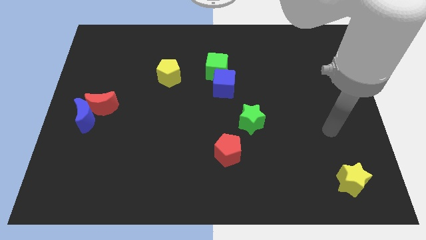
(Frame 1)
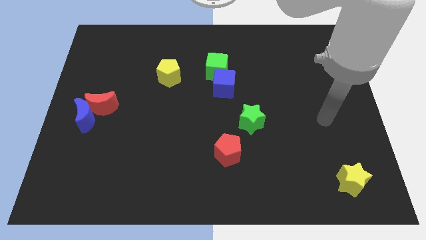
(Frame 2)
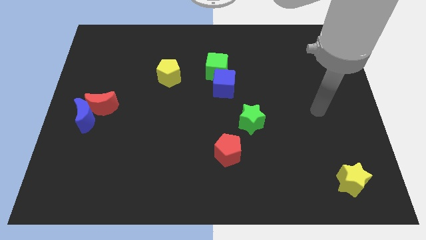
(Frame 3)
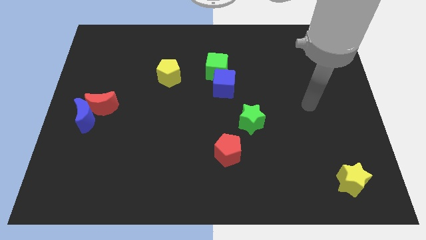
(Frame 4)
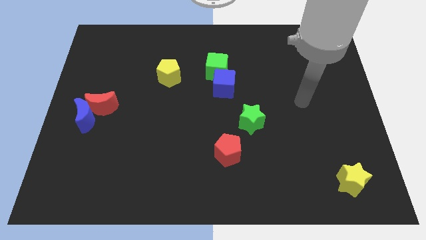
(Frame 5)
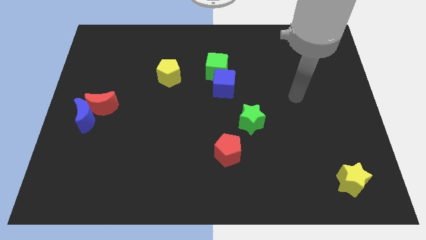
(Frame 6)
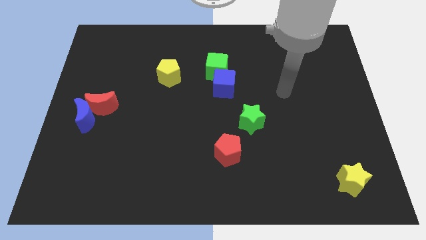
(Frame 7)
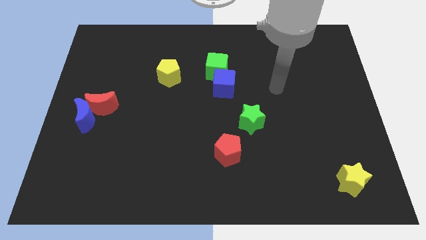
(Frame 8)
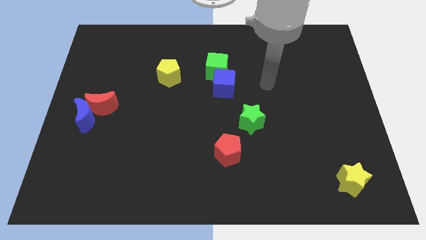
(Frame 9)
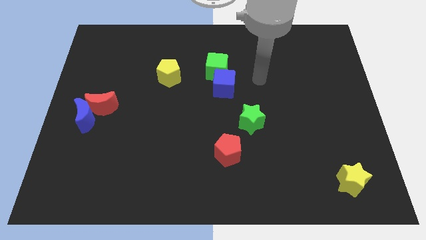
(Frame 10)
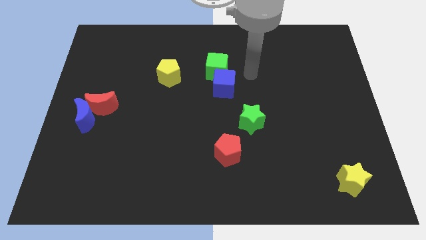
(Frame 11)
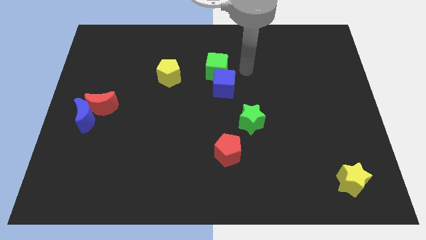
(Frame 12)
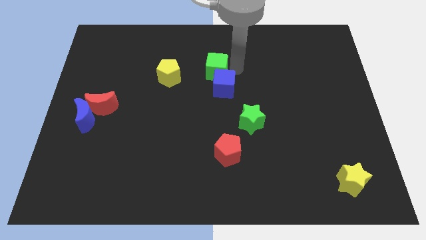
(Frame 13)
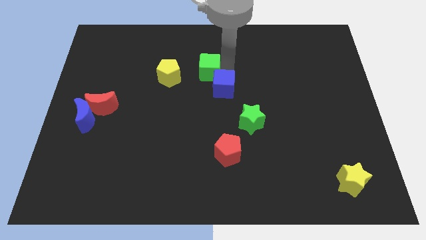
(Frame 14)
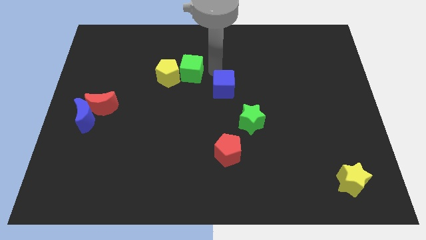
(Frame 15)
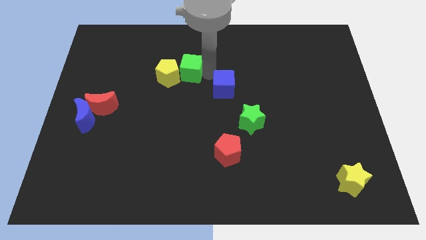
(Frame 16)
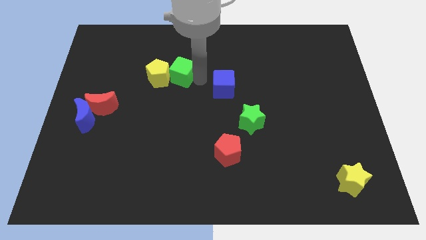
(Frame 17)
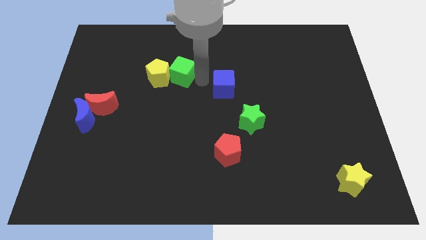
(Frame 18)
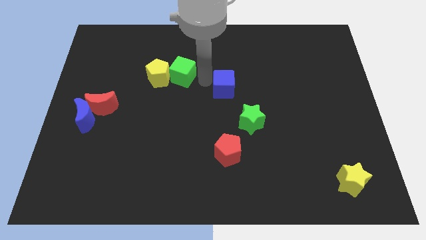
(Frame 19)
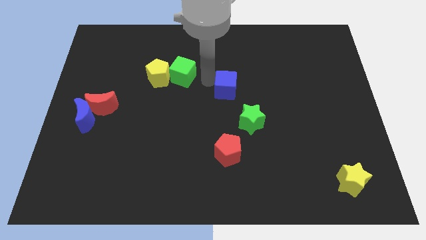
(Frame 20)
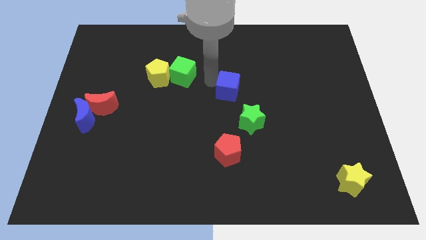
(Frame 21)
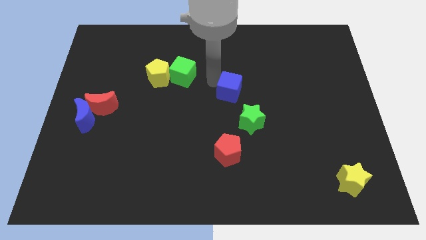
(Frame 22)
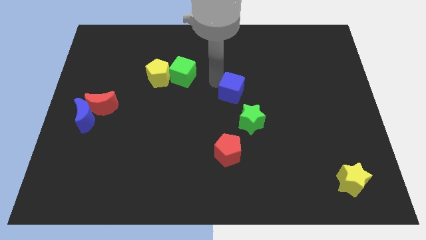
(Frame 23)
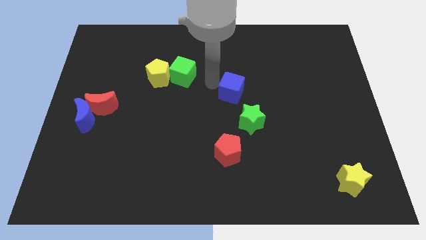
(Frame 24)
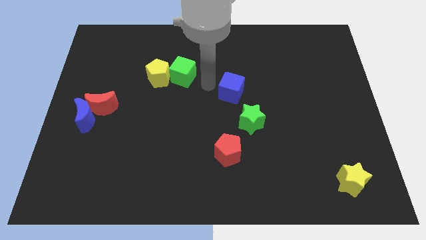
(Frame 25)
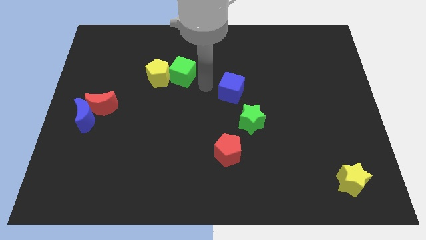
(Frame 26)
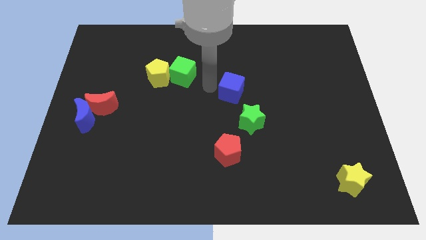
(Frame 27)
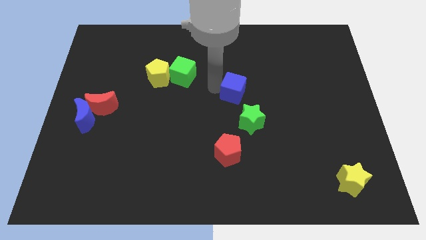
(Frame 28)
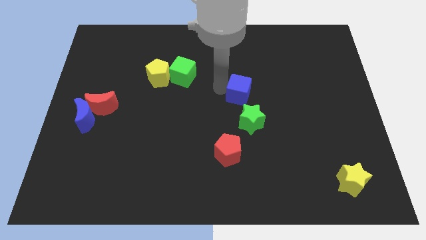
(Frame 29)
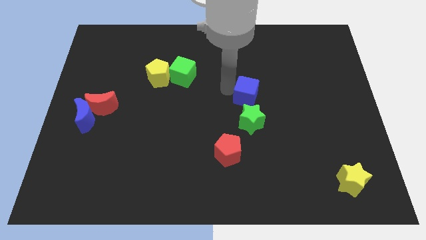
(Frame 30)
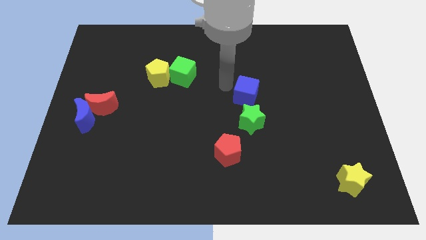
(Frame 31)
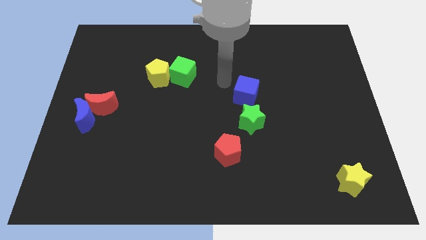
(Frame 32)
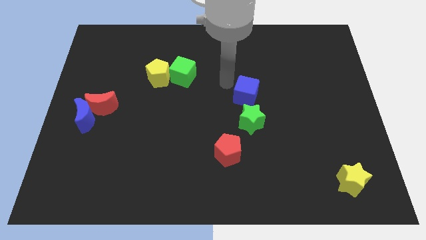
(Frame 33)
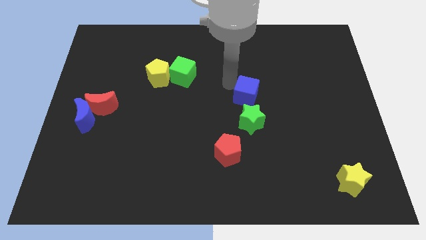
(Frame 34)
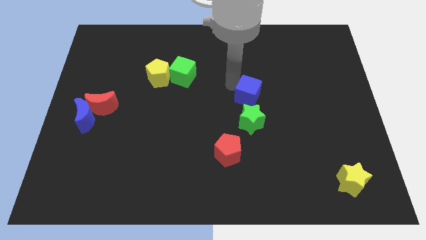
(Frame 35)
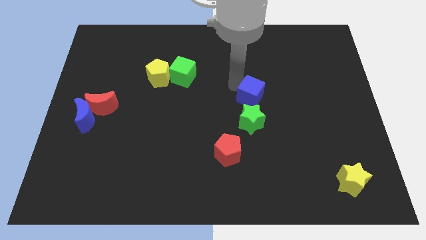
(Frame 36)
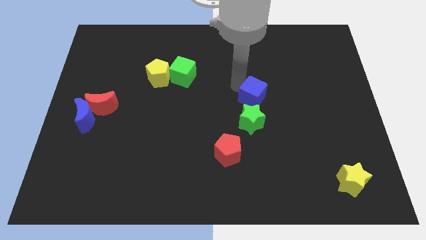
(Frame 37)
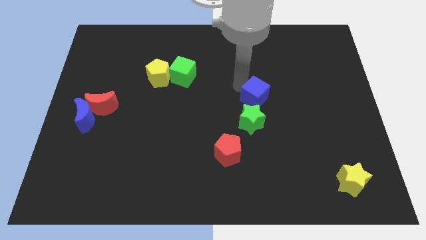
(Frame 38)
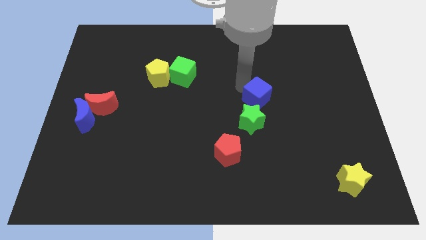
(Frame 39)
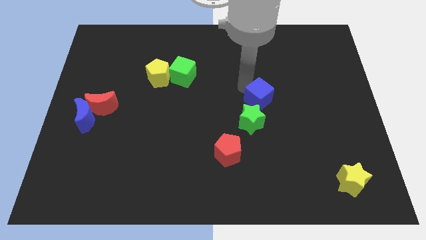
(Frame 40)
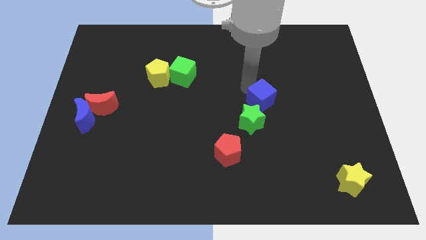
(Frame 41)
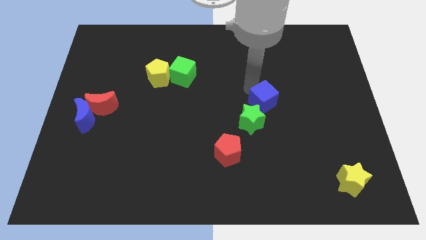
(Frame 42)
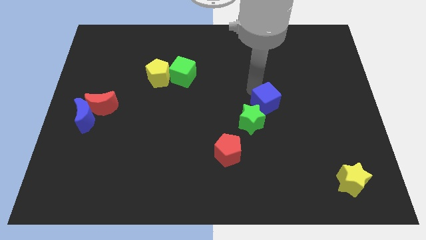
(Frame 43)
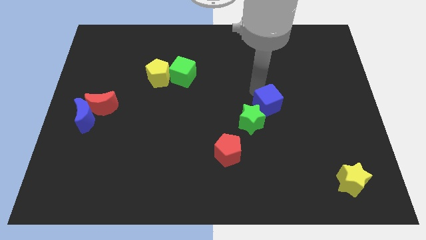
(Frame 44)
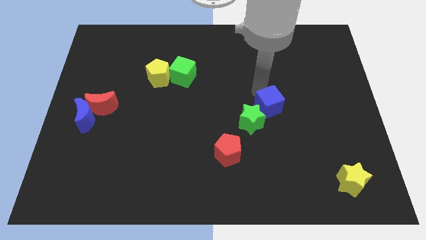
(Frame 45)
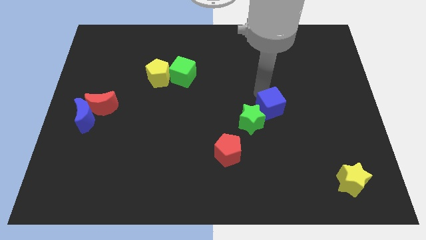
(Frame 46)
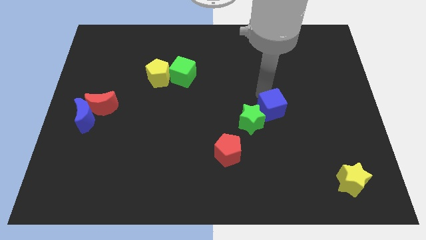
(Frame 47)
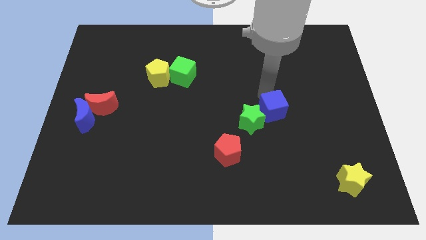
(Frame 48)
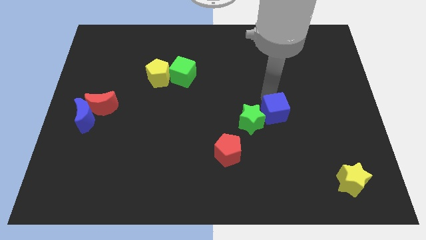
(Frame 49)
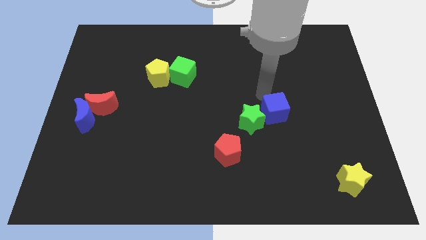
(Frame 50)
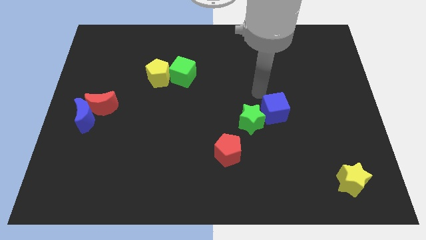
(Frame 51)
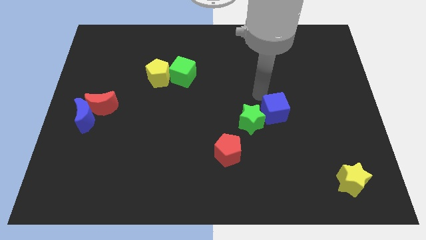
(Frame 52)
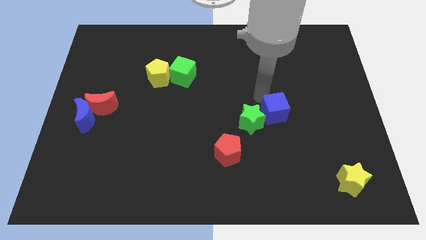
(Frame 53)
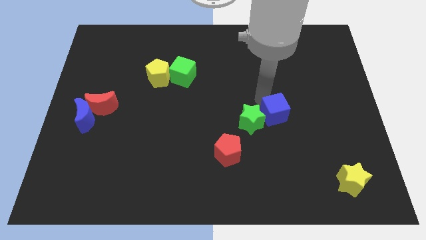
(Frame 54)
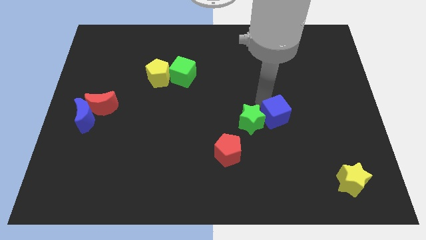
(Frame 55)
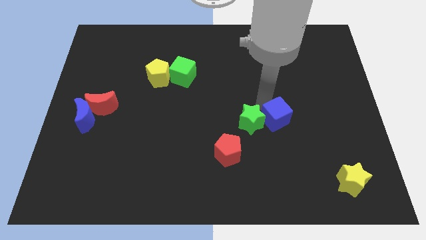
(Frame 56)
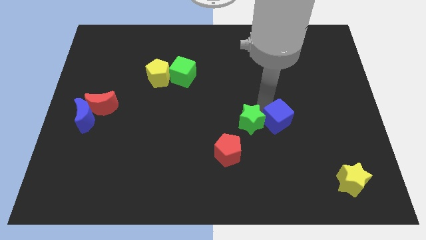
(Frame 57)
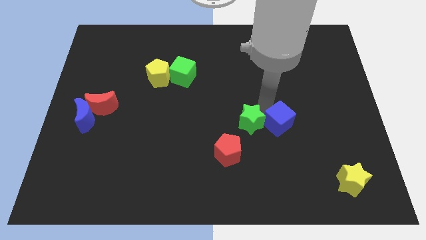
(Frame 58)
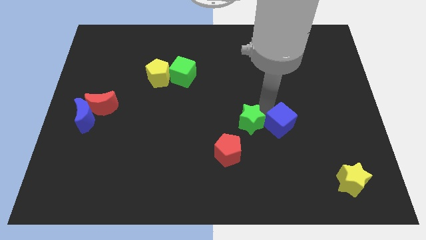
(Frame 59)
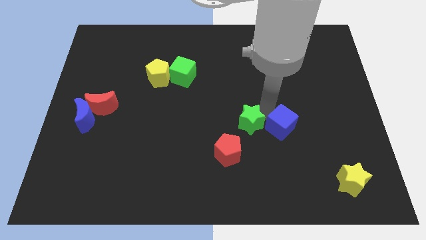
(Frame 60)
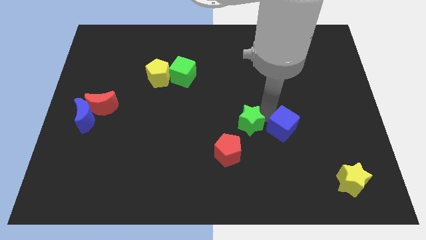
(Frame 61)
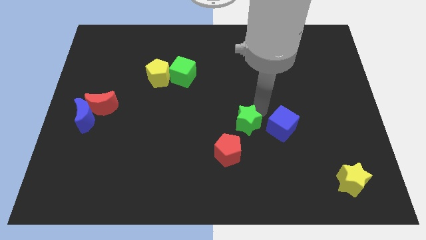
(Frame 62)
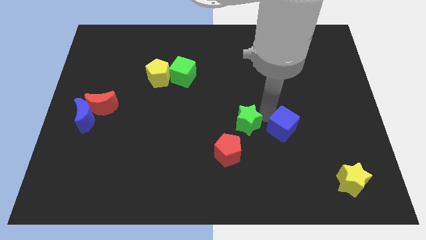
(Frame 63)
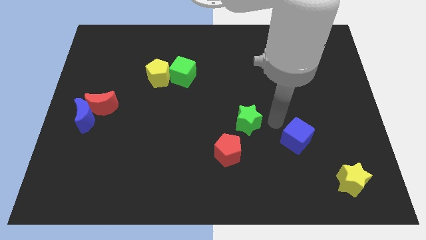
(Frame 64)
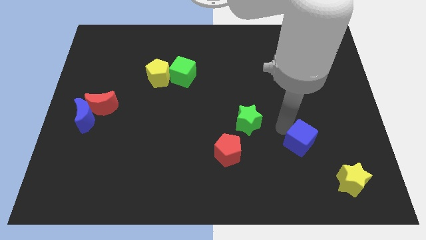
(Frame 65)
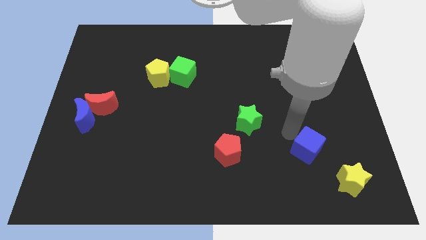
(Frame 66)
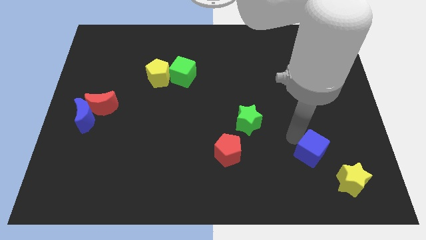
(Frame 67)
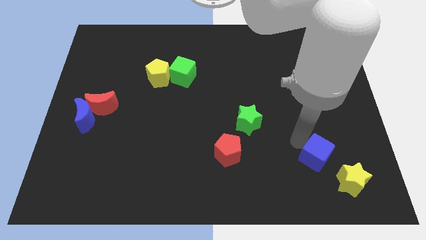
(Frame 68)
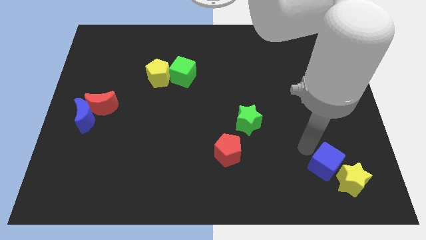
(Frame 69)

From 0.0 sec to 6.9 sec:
move the blue cube next to the yellow star

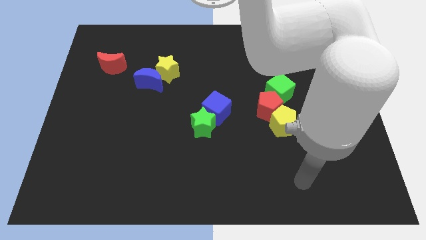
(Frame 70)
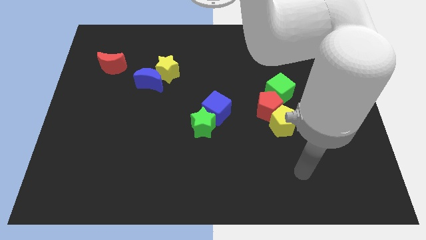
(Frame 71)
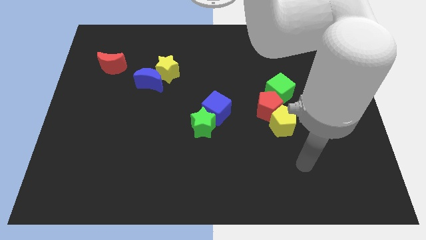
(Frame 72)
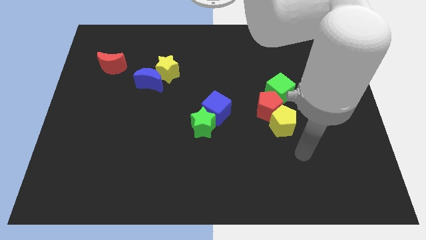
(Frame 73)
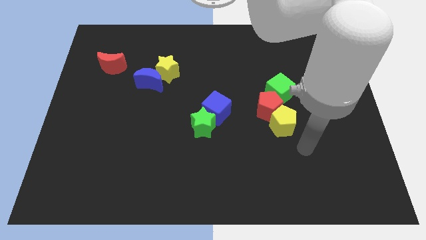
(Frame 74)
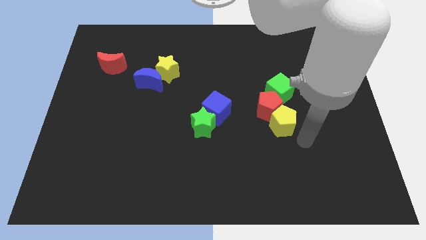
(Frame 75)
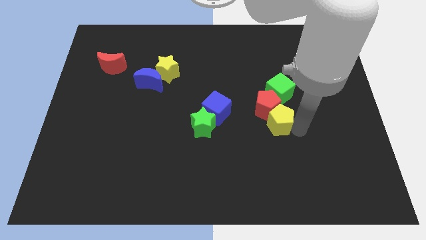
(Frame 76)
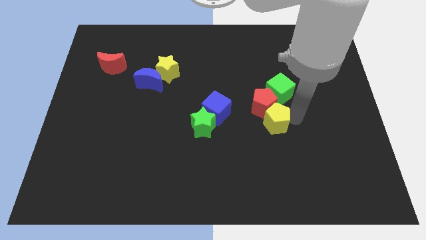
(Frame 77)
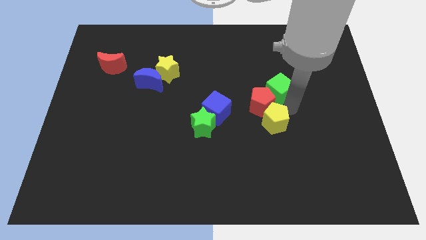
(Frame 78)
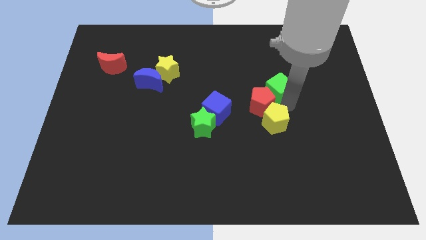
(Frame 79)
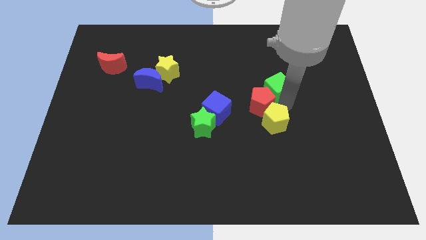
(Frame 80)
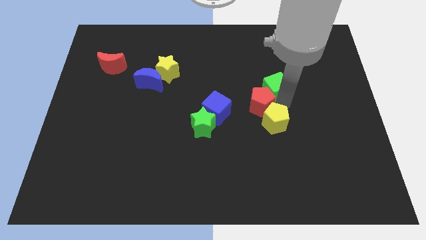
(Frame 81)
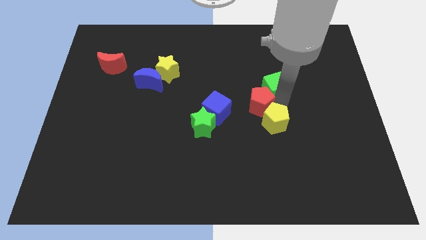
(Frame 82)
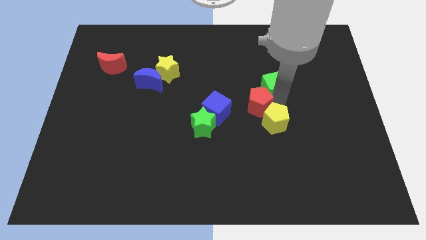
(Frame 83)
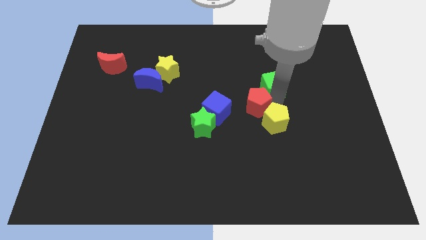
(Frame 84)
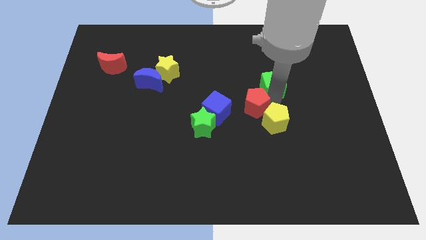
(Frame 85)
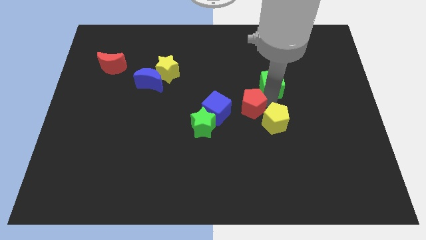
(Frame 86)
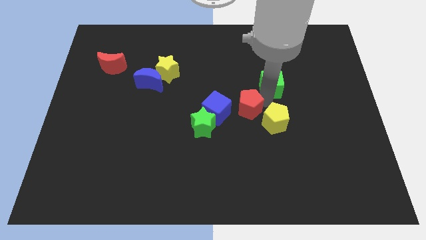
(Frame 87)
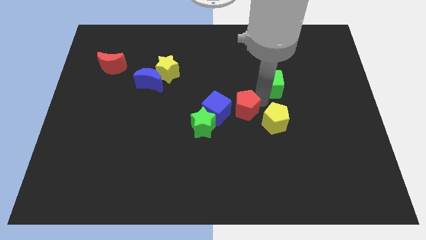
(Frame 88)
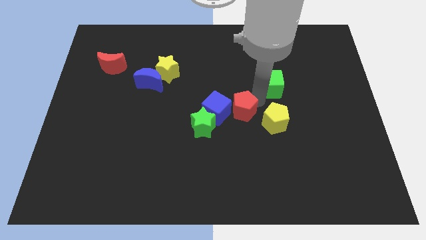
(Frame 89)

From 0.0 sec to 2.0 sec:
move the red pentagon towards the blue cube
